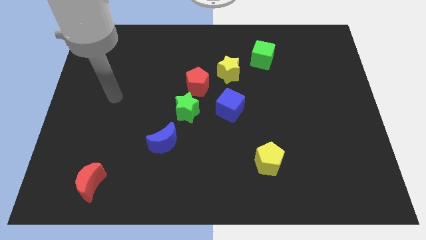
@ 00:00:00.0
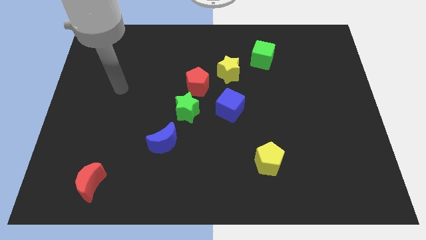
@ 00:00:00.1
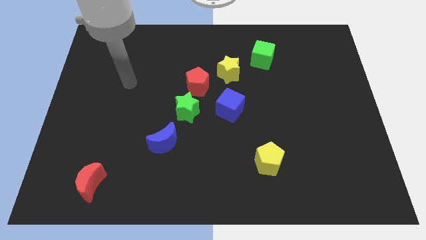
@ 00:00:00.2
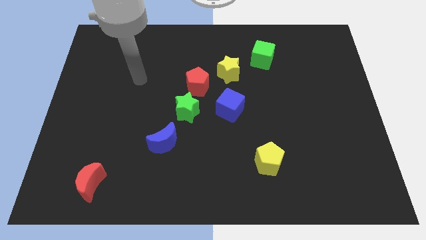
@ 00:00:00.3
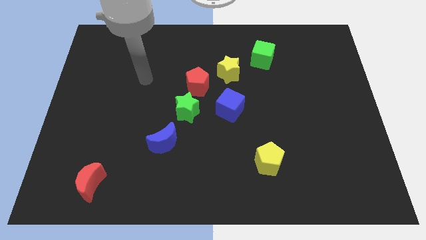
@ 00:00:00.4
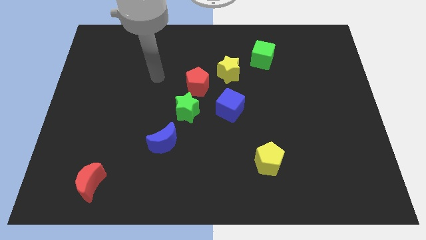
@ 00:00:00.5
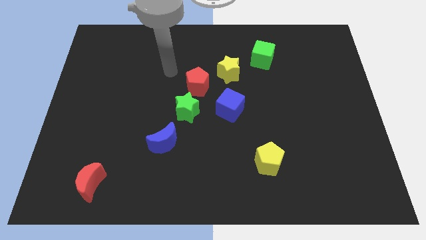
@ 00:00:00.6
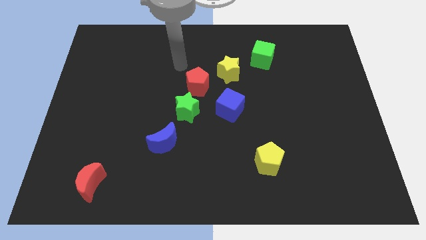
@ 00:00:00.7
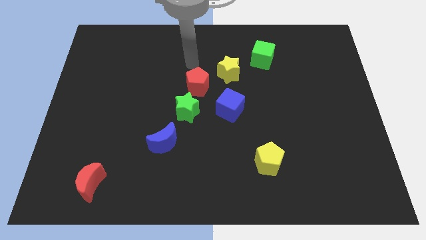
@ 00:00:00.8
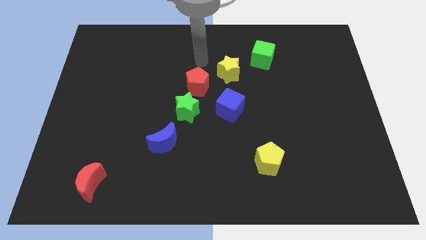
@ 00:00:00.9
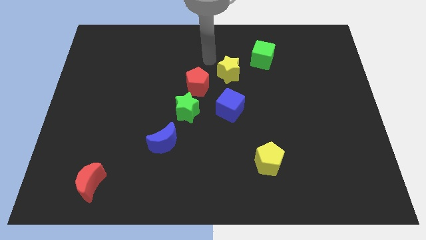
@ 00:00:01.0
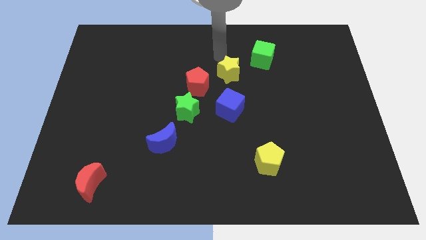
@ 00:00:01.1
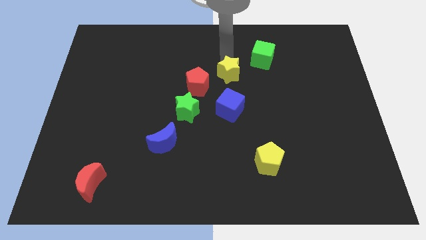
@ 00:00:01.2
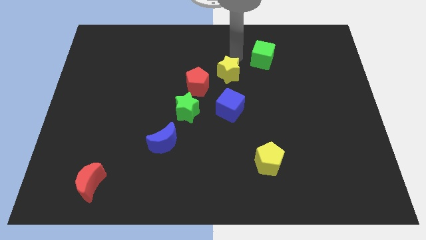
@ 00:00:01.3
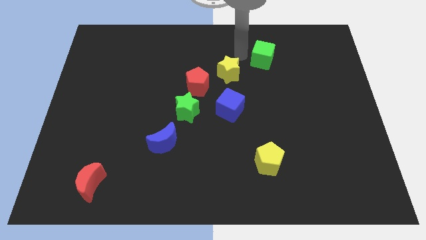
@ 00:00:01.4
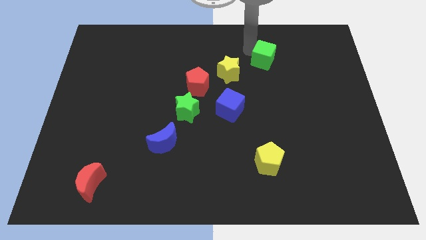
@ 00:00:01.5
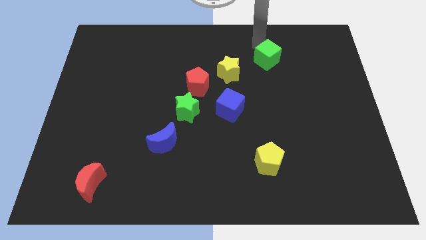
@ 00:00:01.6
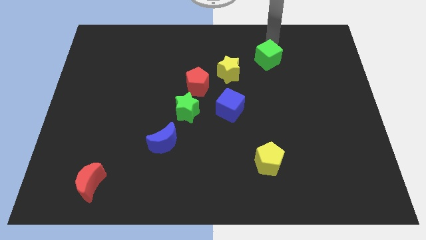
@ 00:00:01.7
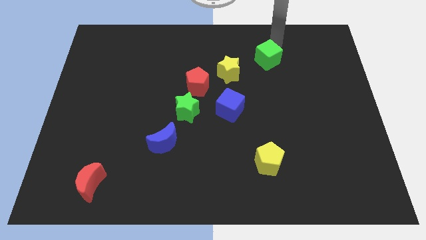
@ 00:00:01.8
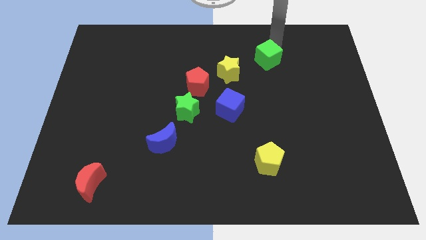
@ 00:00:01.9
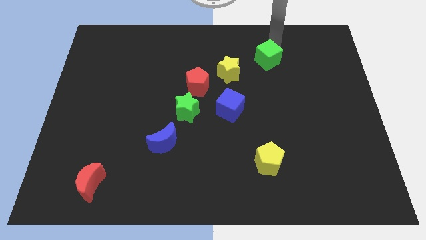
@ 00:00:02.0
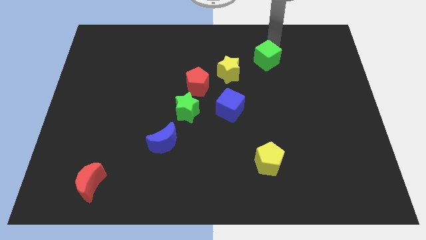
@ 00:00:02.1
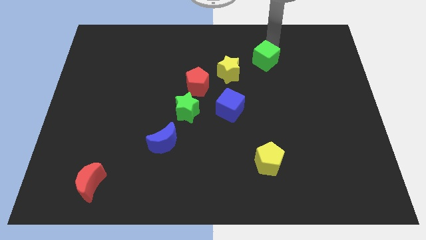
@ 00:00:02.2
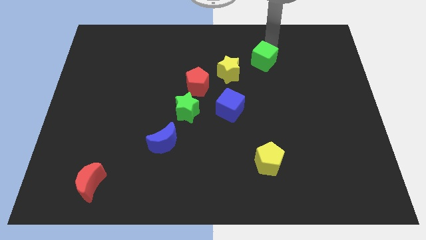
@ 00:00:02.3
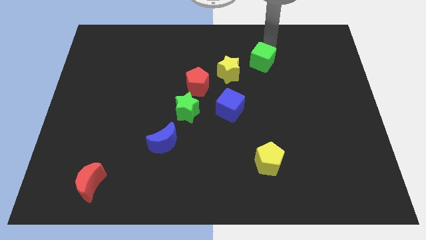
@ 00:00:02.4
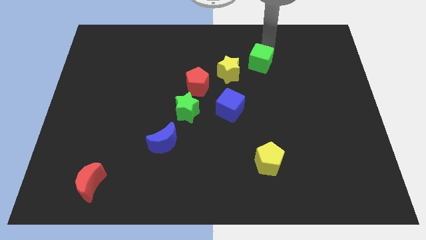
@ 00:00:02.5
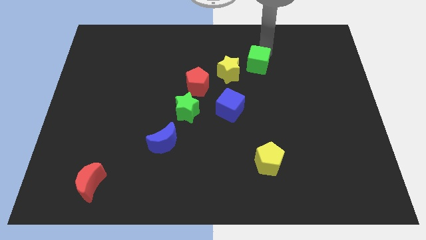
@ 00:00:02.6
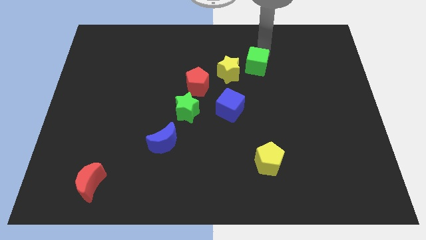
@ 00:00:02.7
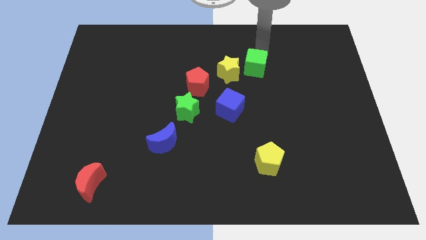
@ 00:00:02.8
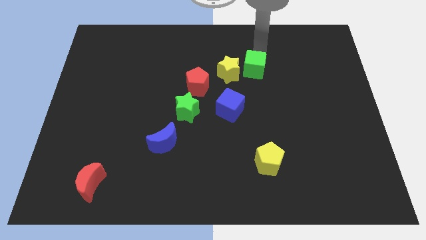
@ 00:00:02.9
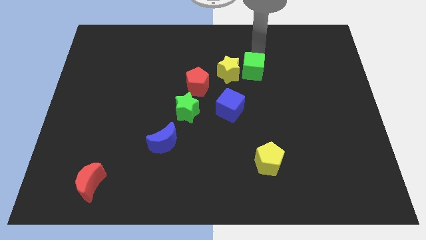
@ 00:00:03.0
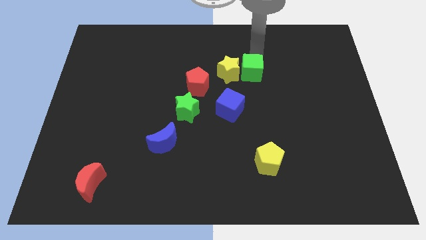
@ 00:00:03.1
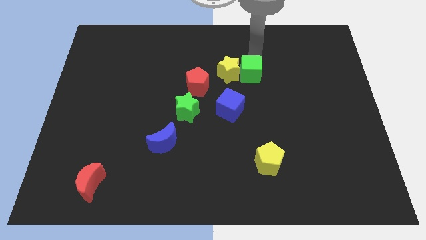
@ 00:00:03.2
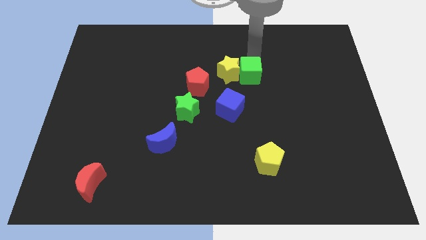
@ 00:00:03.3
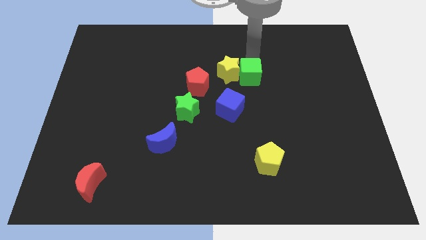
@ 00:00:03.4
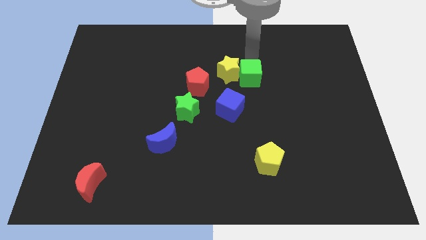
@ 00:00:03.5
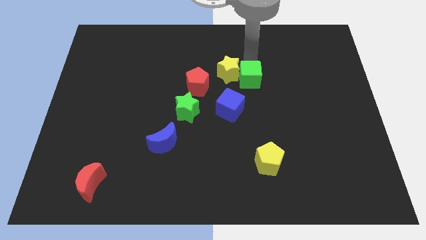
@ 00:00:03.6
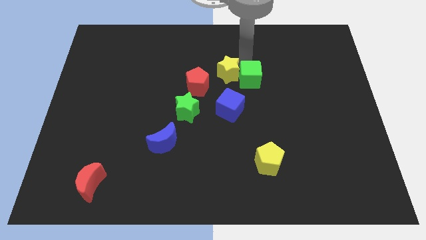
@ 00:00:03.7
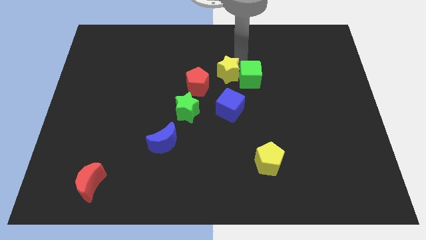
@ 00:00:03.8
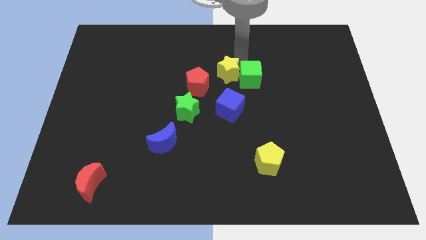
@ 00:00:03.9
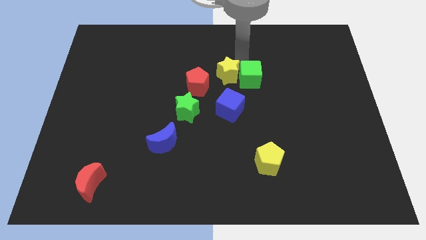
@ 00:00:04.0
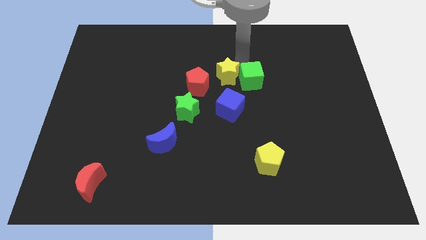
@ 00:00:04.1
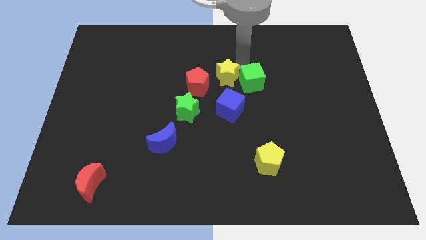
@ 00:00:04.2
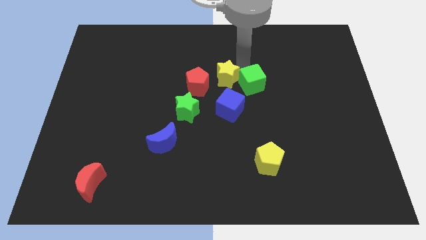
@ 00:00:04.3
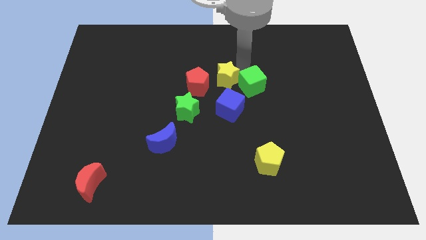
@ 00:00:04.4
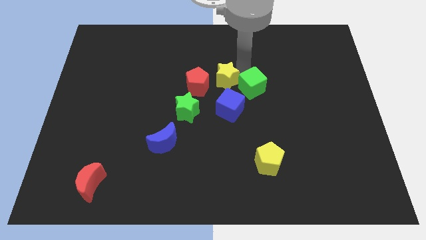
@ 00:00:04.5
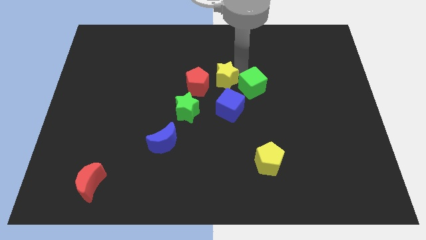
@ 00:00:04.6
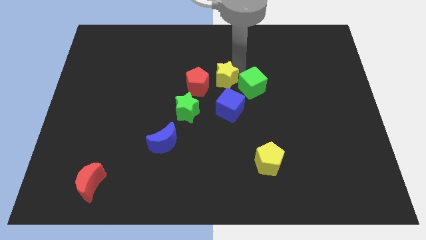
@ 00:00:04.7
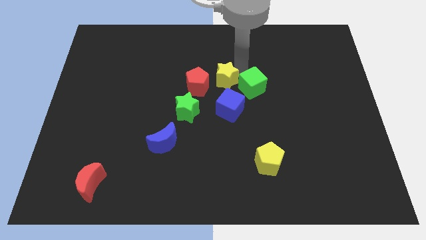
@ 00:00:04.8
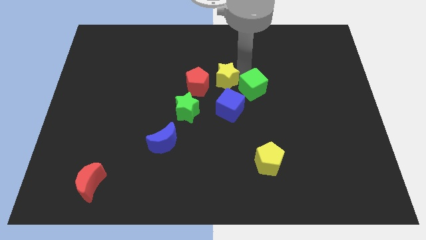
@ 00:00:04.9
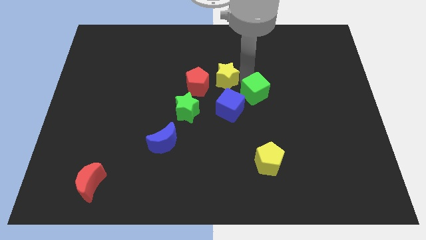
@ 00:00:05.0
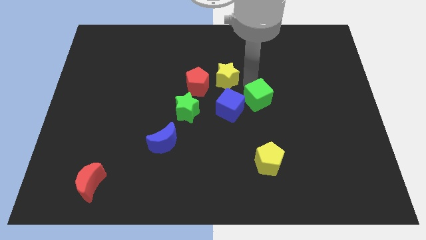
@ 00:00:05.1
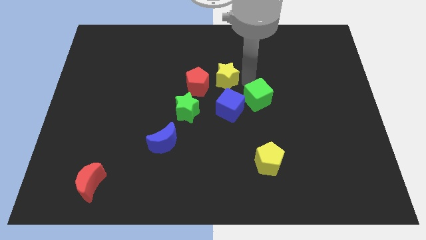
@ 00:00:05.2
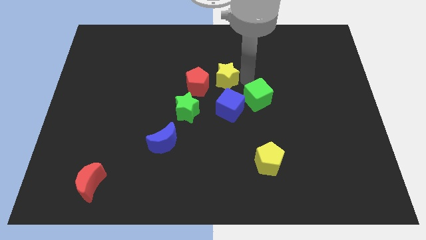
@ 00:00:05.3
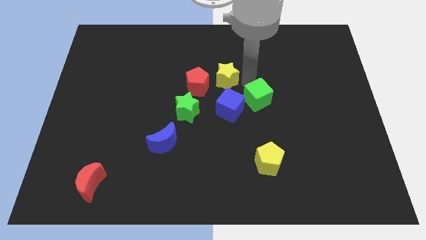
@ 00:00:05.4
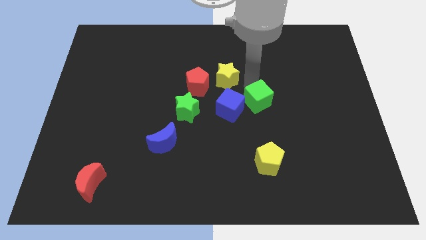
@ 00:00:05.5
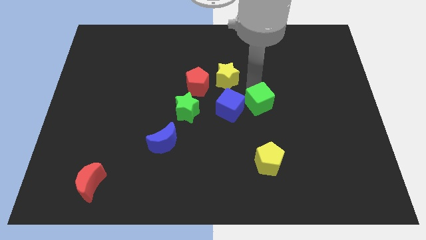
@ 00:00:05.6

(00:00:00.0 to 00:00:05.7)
move the green cube above the yellow pentagon

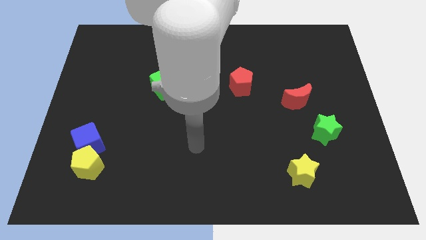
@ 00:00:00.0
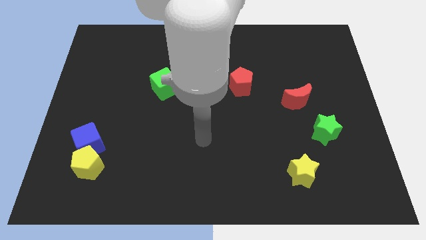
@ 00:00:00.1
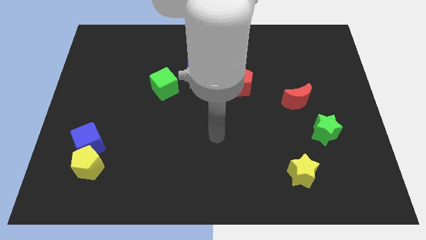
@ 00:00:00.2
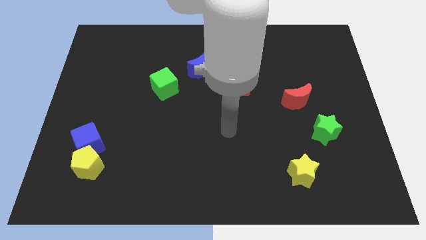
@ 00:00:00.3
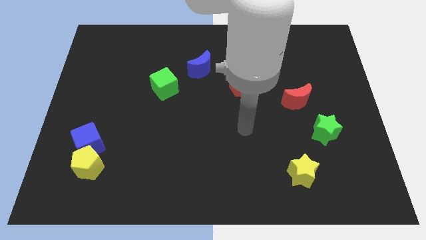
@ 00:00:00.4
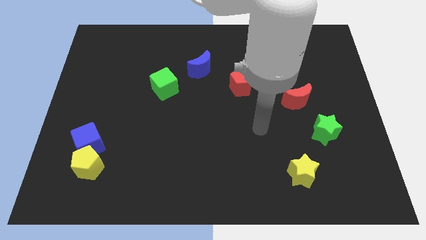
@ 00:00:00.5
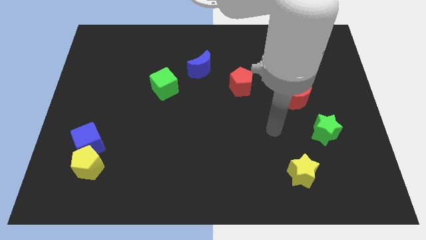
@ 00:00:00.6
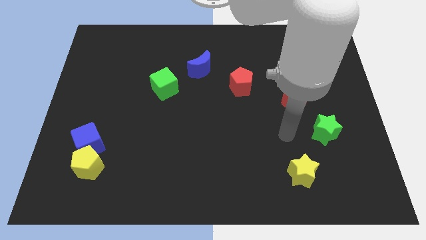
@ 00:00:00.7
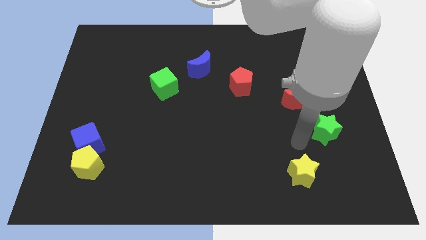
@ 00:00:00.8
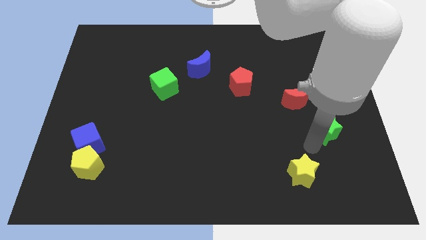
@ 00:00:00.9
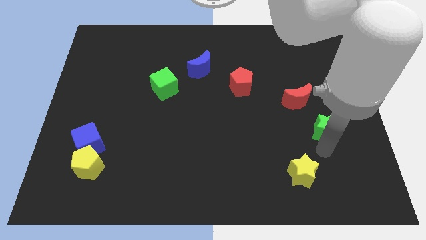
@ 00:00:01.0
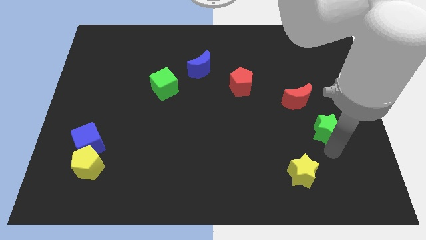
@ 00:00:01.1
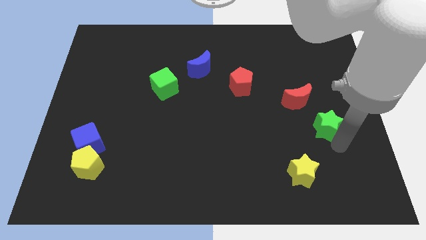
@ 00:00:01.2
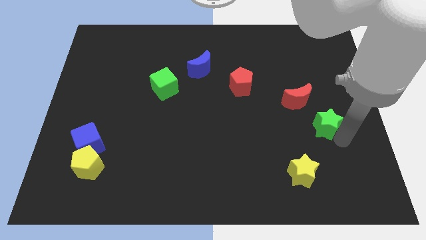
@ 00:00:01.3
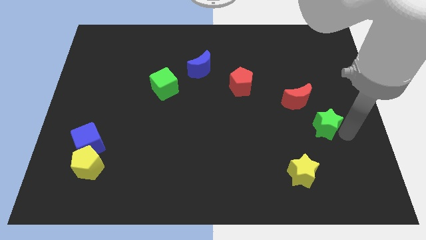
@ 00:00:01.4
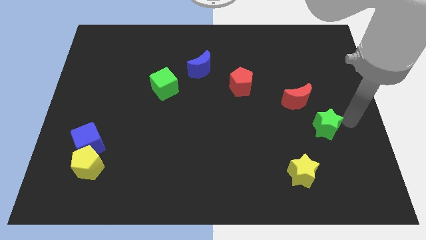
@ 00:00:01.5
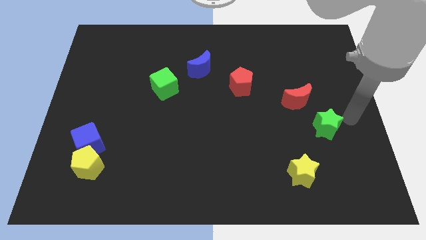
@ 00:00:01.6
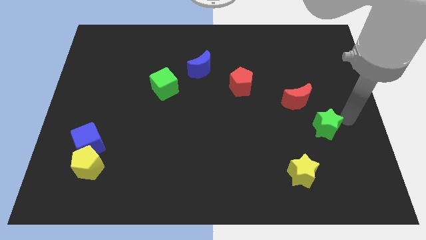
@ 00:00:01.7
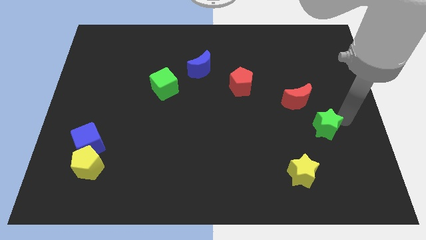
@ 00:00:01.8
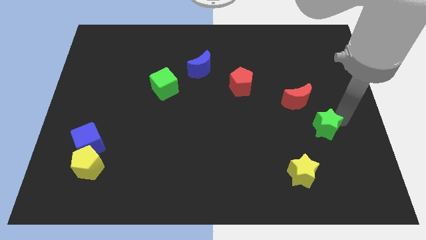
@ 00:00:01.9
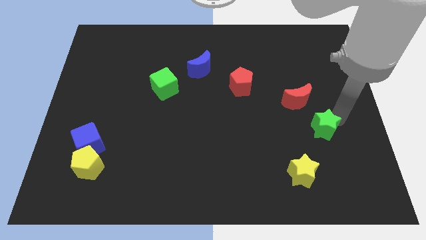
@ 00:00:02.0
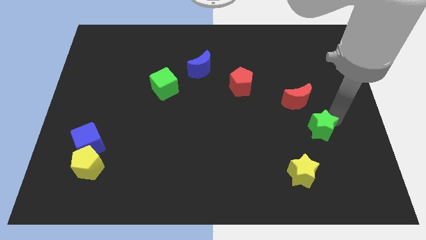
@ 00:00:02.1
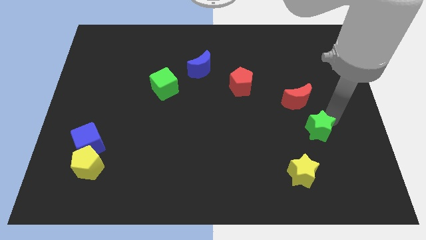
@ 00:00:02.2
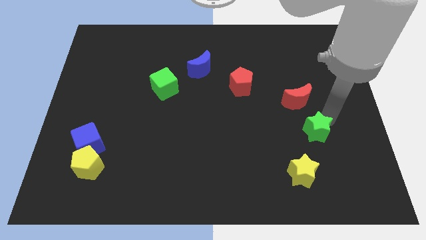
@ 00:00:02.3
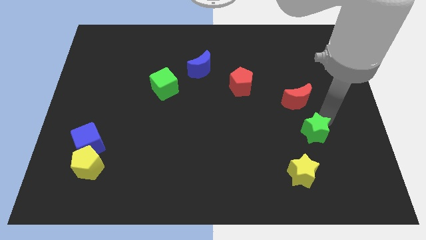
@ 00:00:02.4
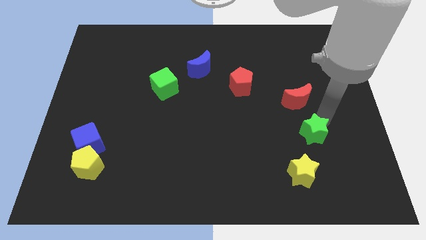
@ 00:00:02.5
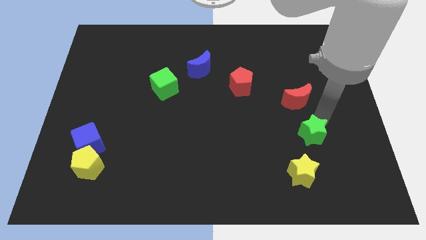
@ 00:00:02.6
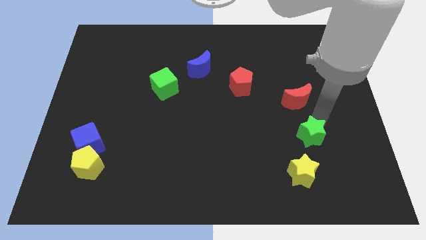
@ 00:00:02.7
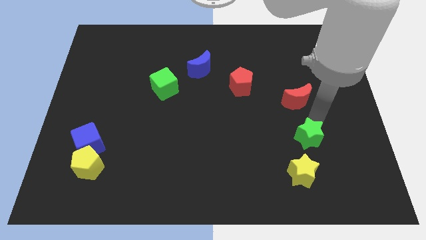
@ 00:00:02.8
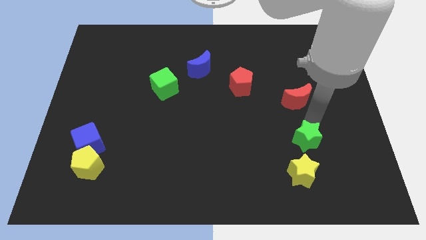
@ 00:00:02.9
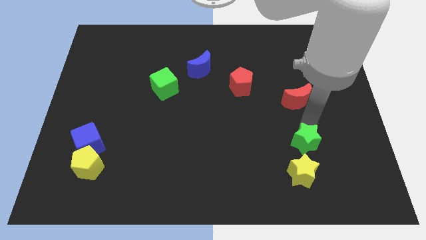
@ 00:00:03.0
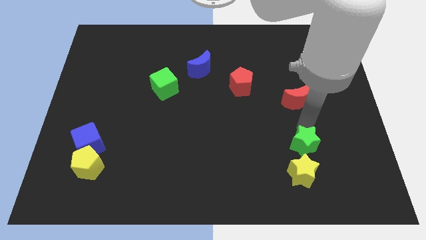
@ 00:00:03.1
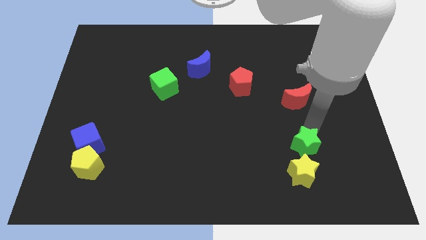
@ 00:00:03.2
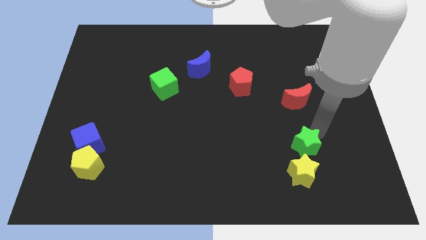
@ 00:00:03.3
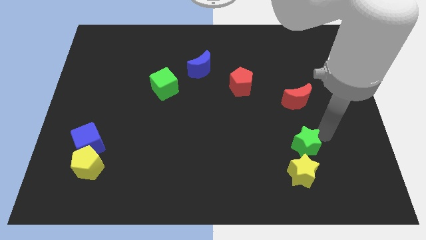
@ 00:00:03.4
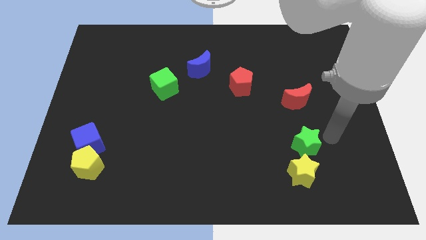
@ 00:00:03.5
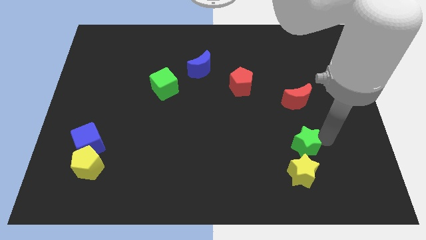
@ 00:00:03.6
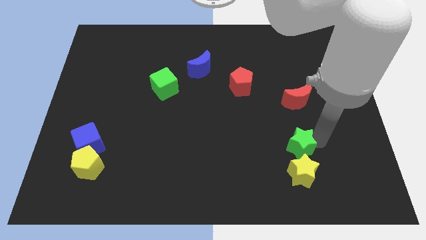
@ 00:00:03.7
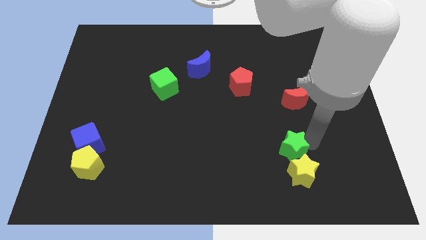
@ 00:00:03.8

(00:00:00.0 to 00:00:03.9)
slide the green star to the top left of the yellow star
